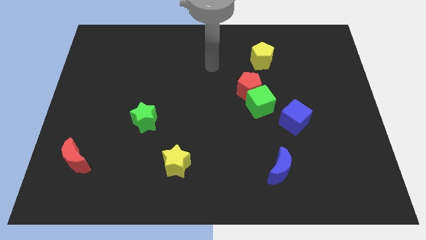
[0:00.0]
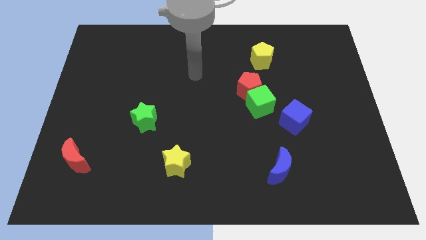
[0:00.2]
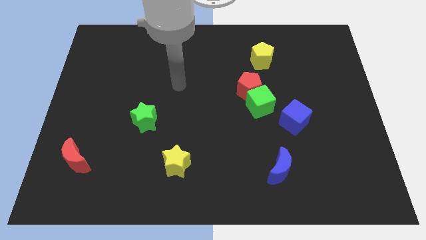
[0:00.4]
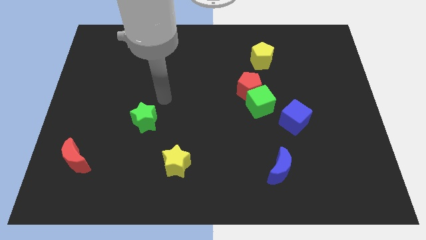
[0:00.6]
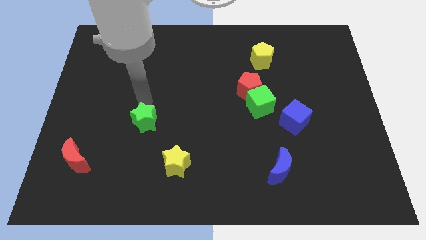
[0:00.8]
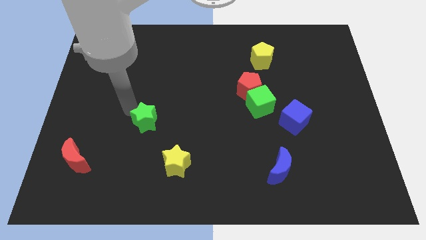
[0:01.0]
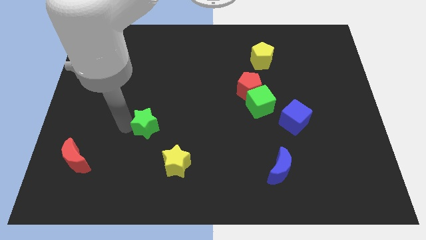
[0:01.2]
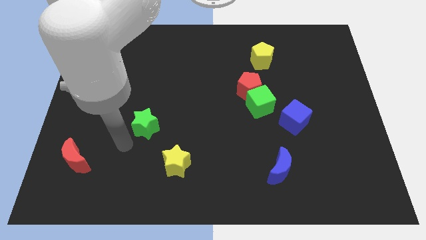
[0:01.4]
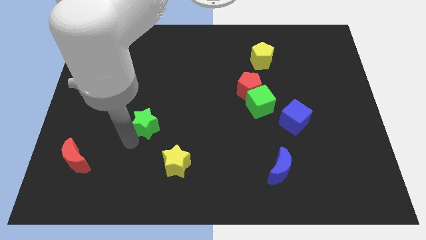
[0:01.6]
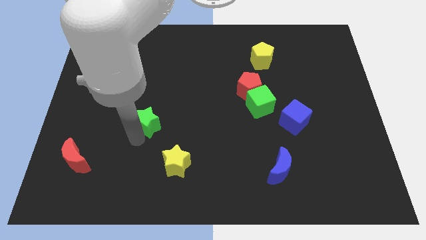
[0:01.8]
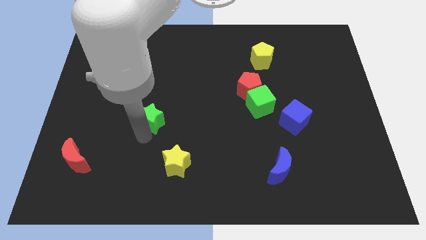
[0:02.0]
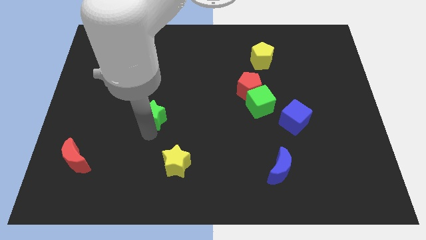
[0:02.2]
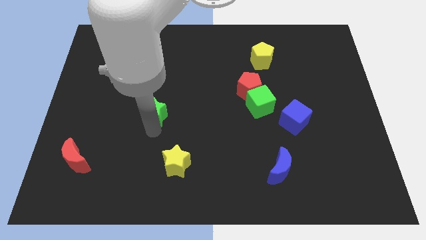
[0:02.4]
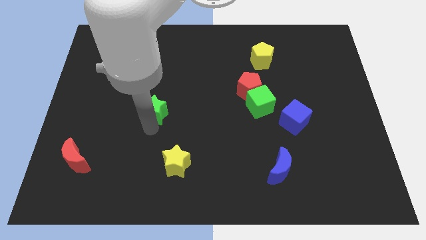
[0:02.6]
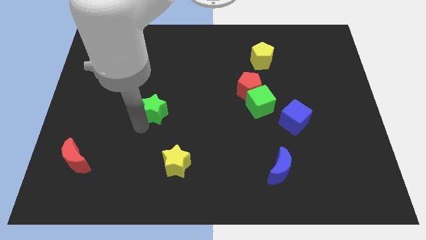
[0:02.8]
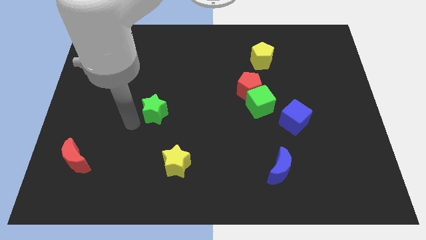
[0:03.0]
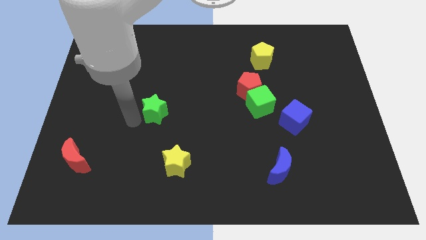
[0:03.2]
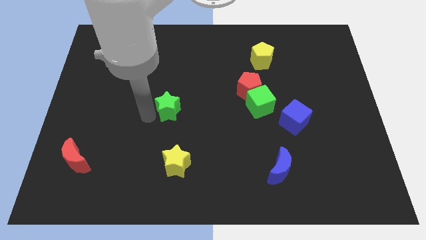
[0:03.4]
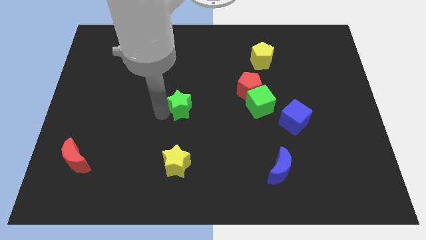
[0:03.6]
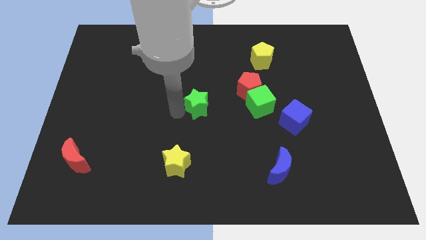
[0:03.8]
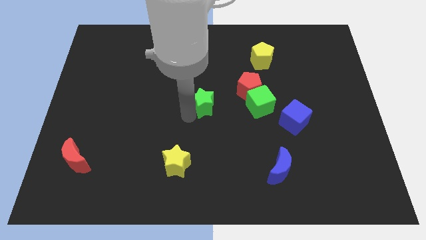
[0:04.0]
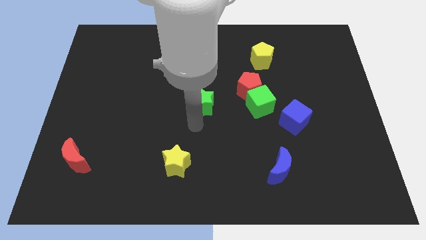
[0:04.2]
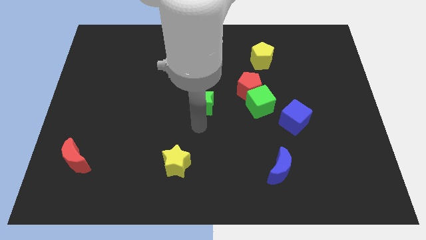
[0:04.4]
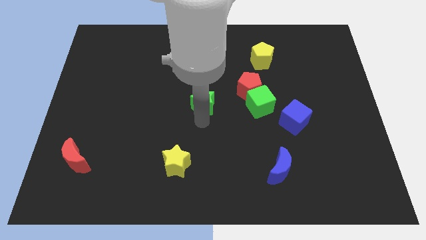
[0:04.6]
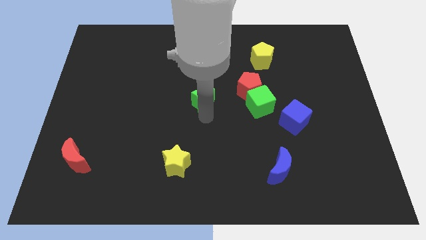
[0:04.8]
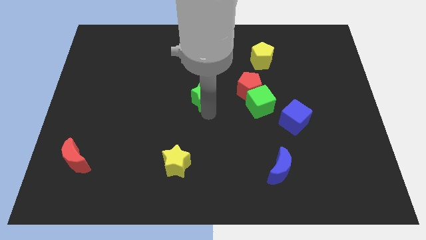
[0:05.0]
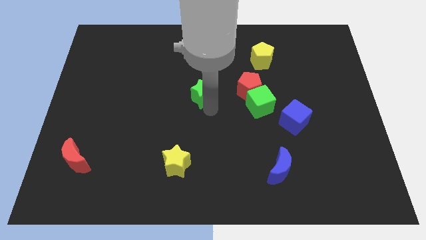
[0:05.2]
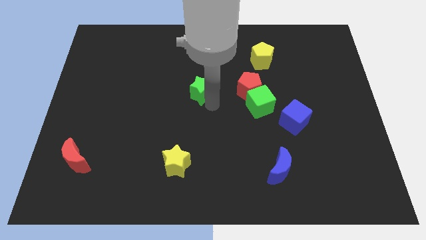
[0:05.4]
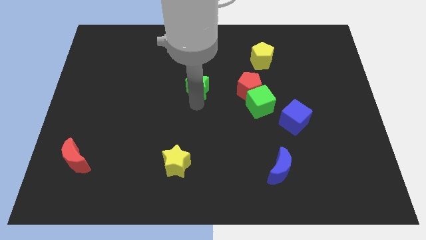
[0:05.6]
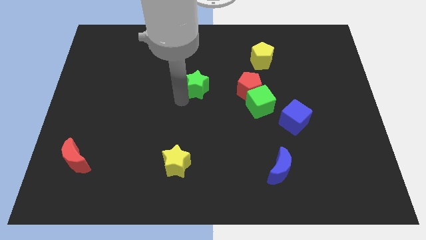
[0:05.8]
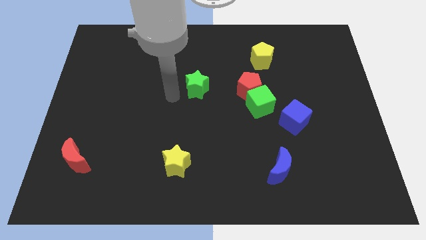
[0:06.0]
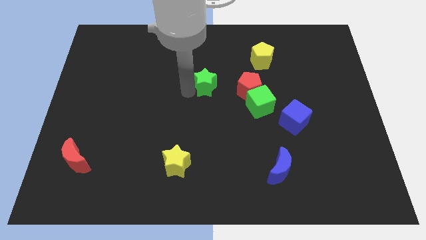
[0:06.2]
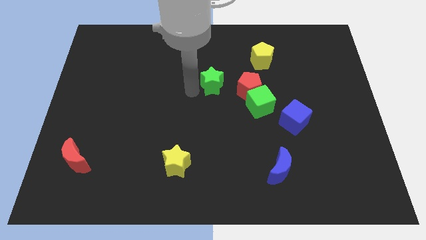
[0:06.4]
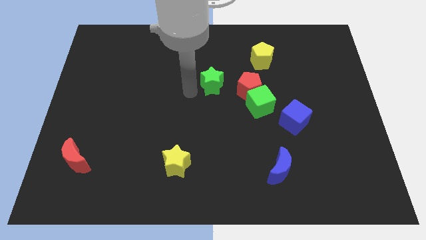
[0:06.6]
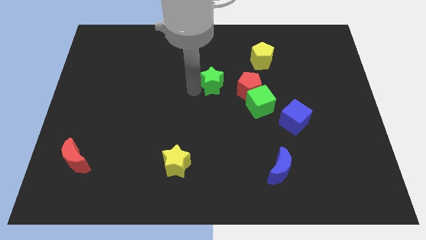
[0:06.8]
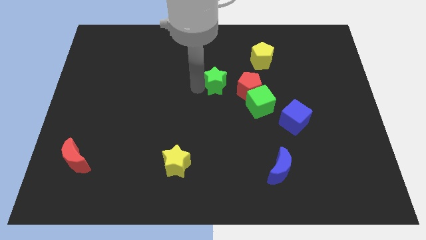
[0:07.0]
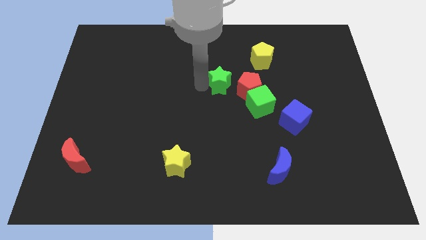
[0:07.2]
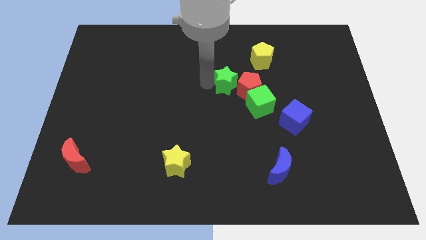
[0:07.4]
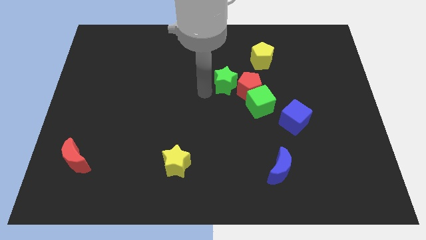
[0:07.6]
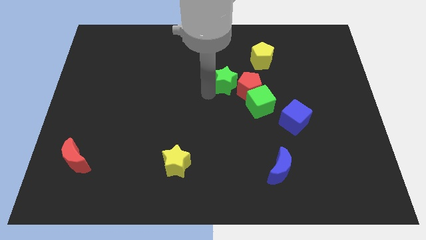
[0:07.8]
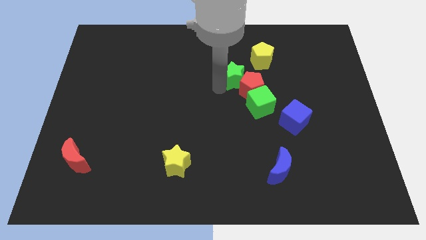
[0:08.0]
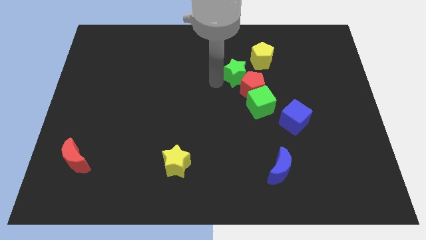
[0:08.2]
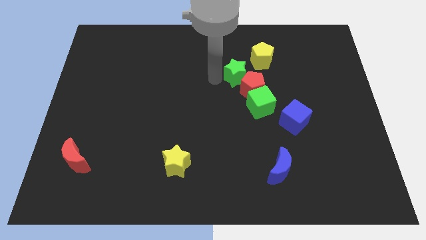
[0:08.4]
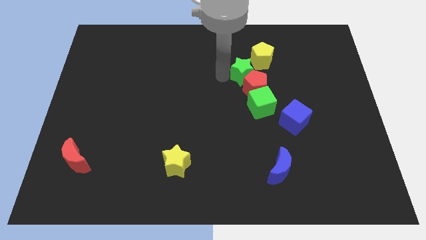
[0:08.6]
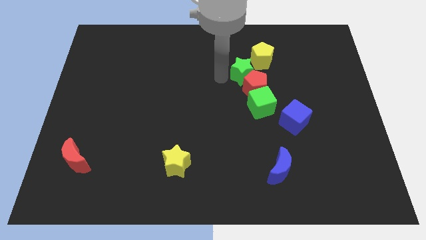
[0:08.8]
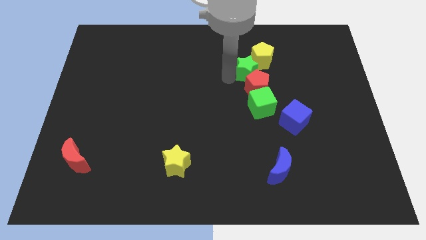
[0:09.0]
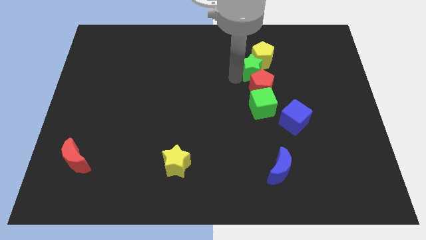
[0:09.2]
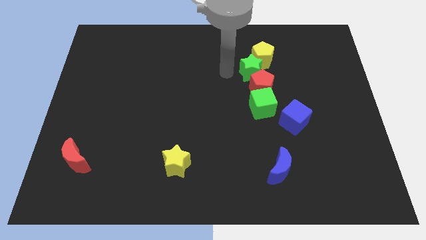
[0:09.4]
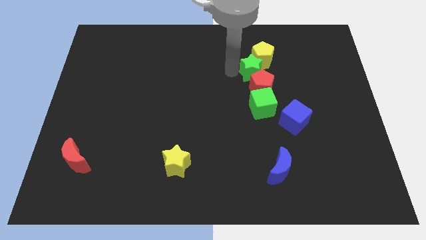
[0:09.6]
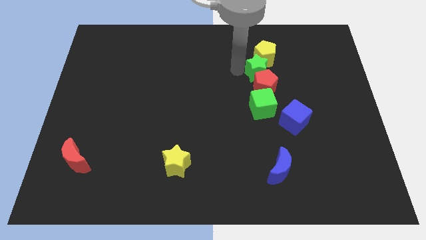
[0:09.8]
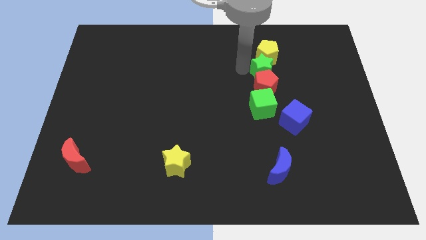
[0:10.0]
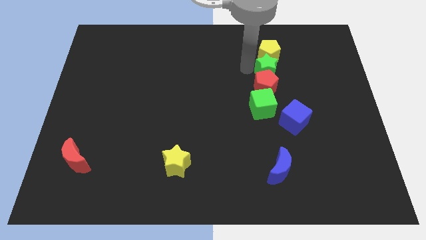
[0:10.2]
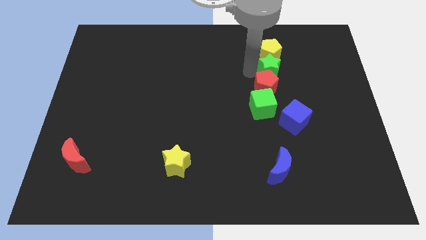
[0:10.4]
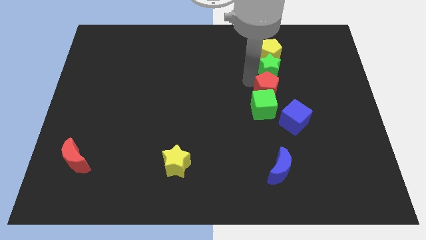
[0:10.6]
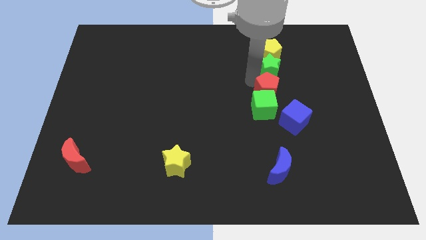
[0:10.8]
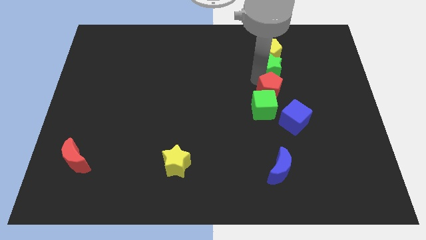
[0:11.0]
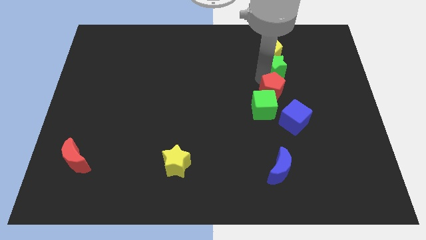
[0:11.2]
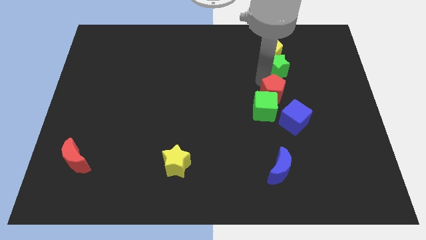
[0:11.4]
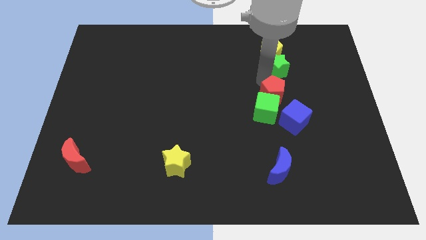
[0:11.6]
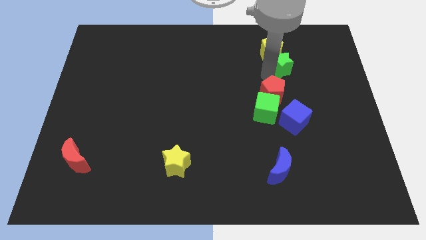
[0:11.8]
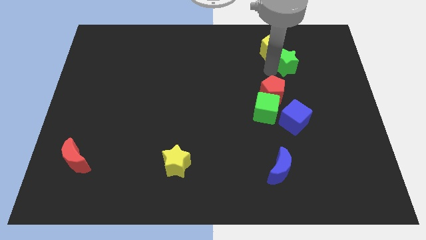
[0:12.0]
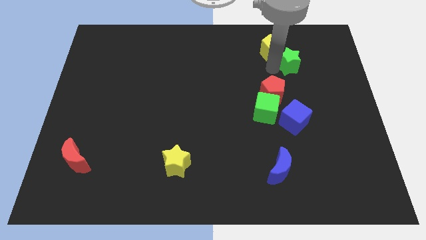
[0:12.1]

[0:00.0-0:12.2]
put the green star just right of the yellow pentagon
